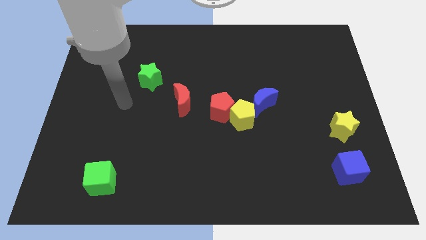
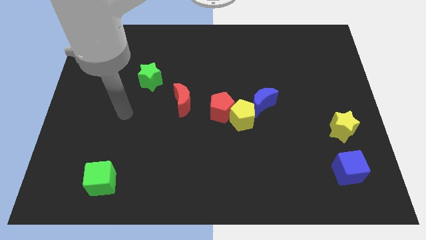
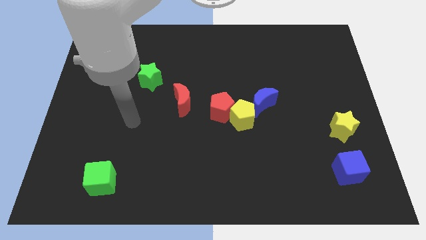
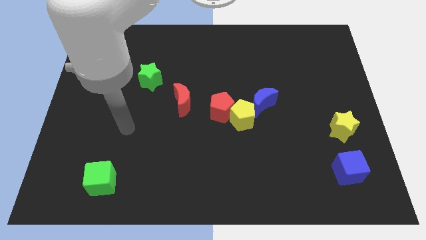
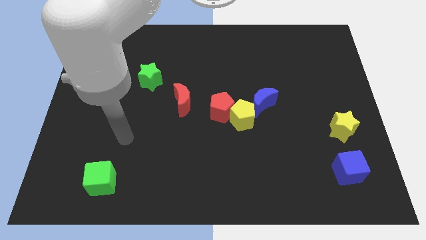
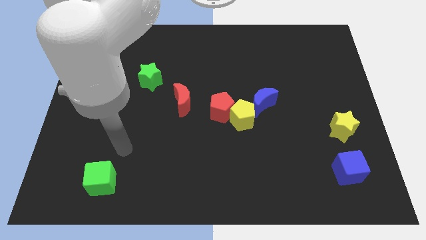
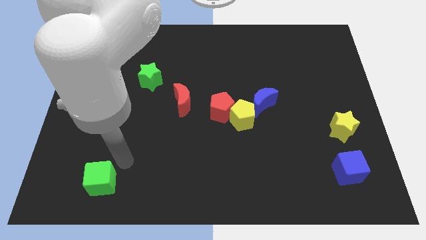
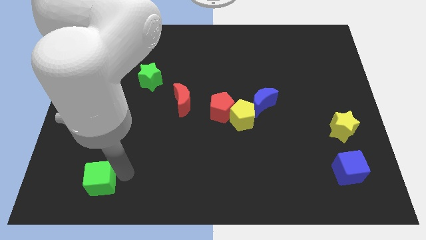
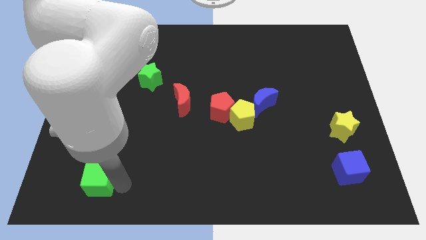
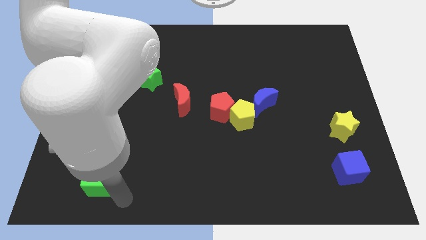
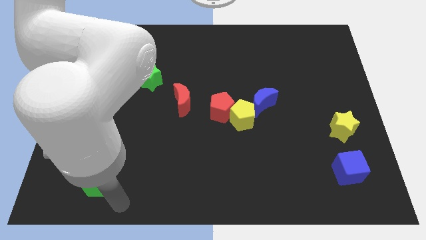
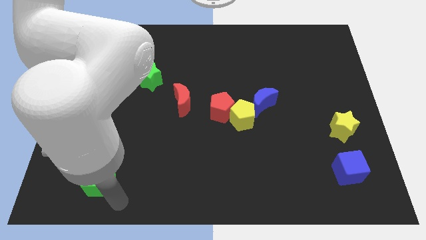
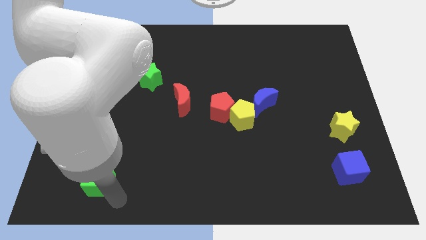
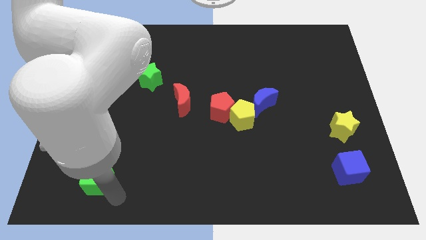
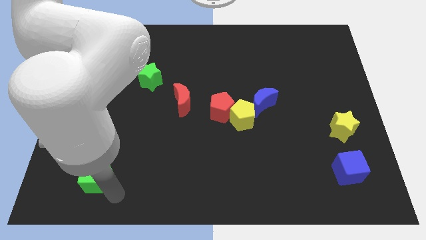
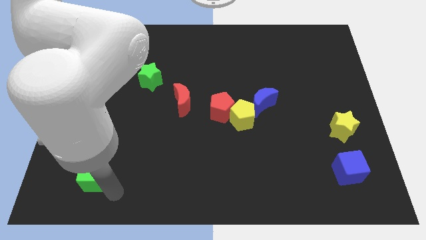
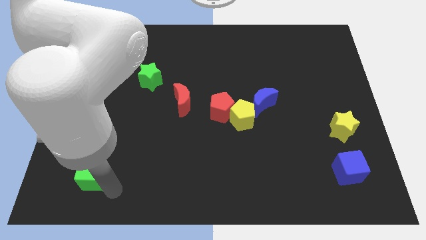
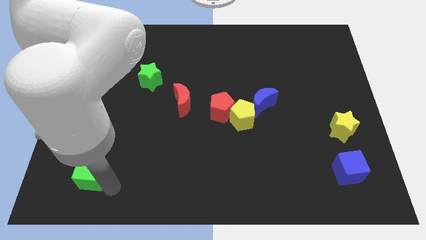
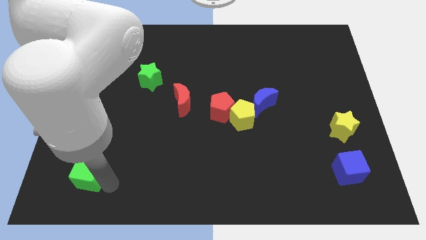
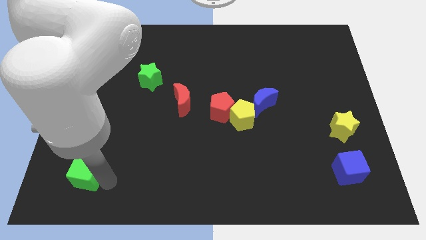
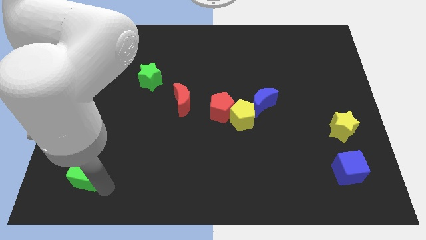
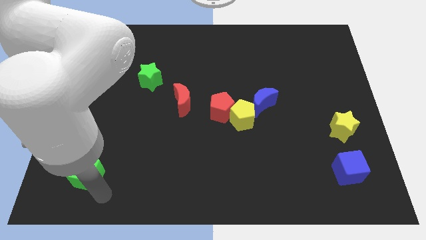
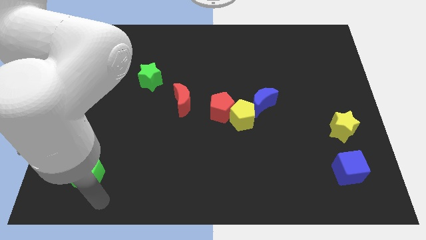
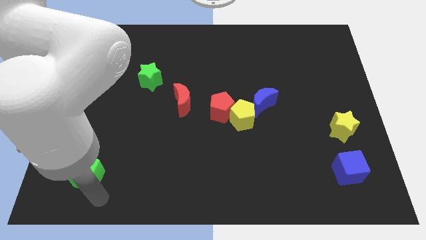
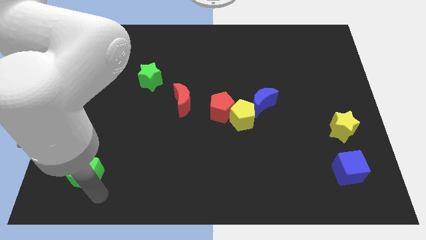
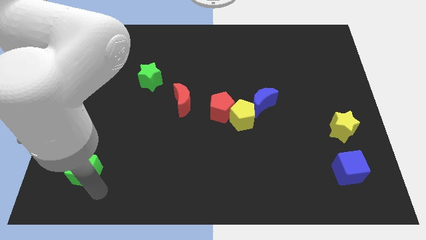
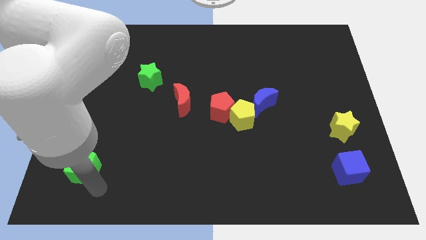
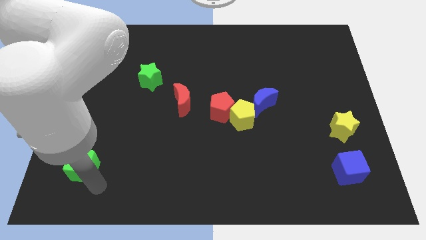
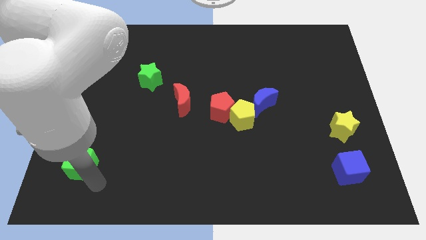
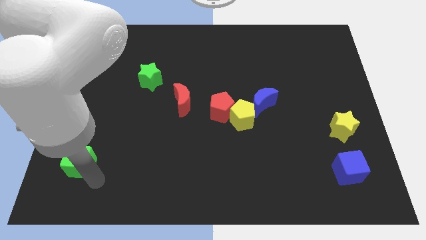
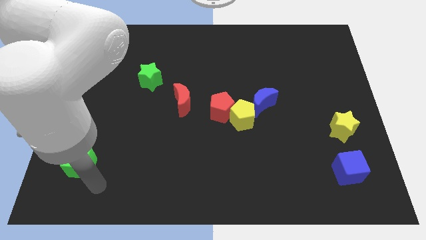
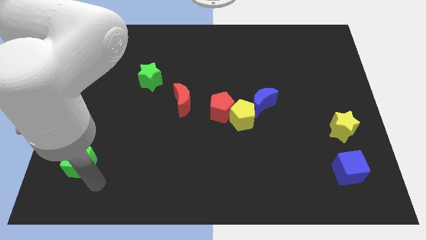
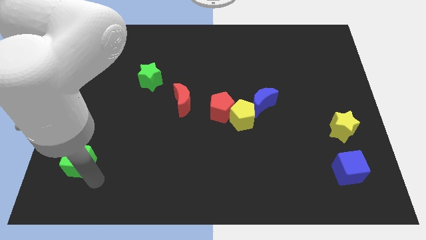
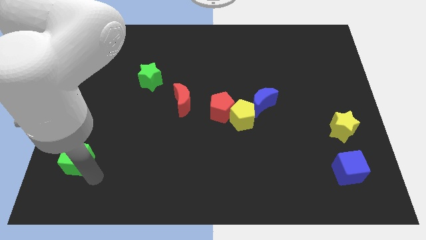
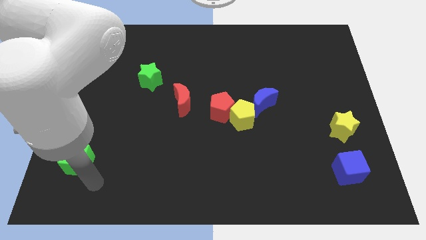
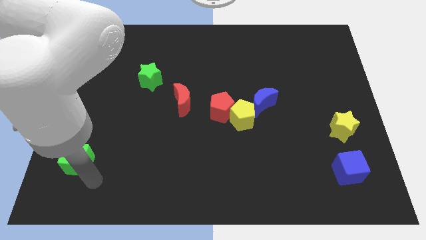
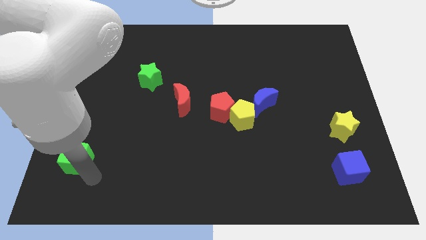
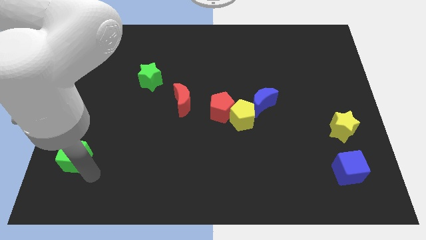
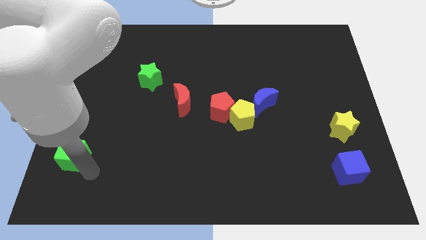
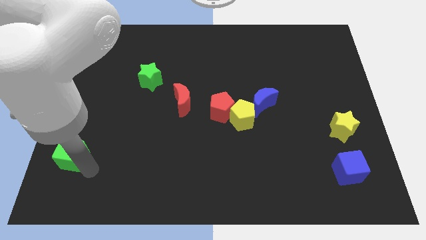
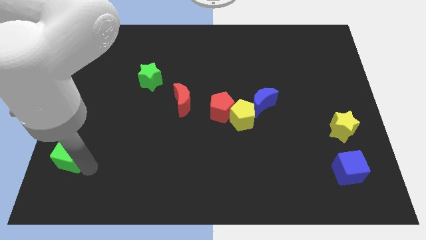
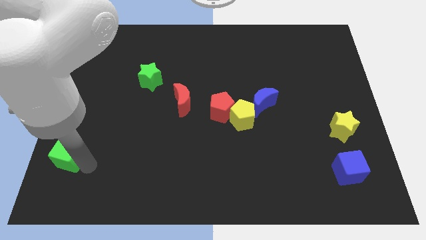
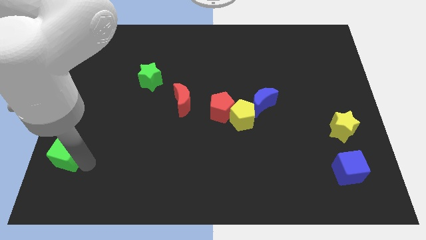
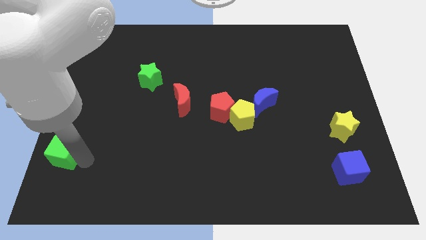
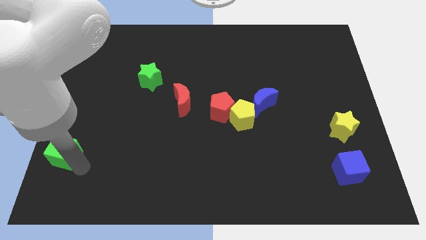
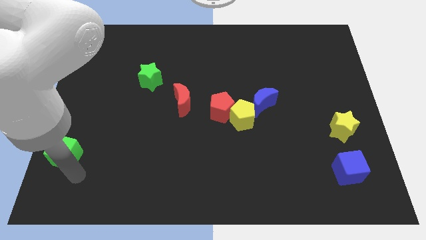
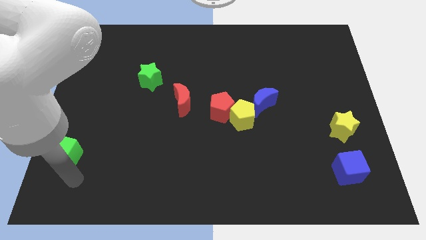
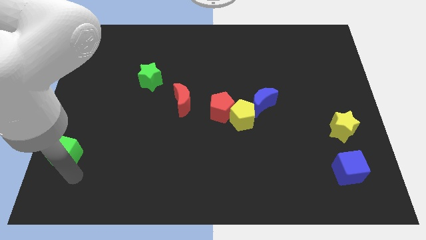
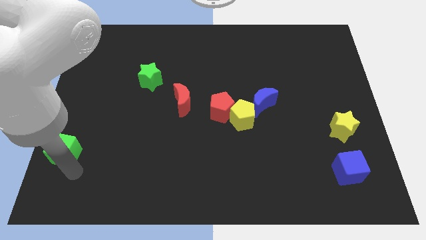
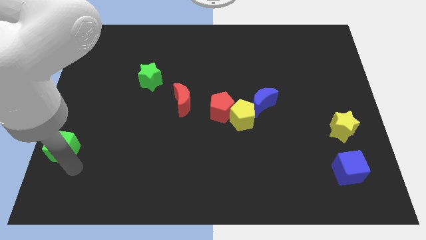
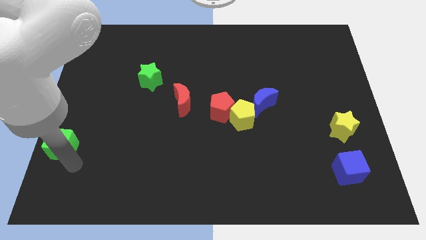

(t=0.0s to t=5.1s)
slide the green cube to the left side

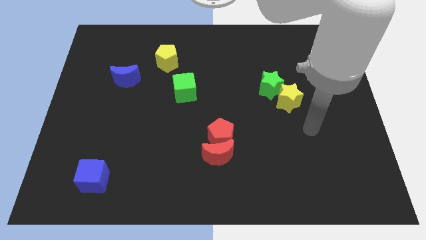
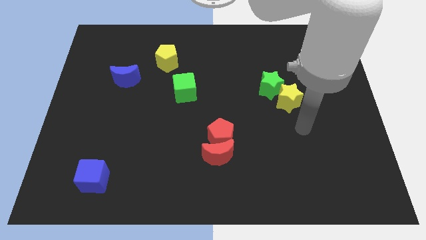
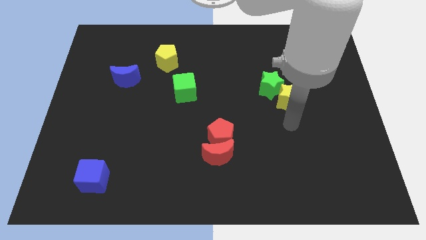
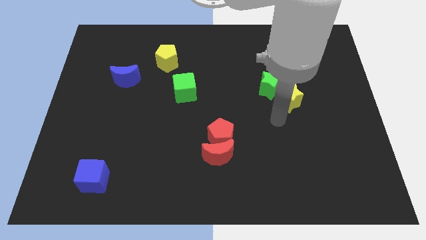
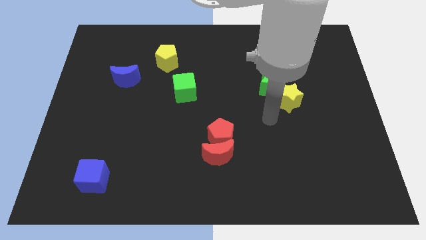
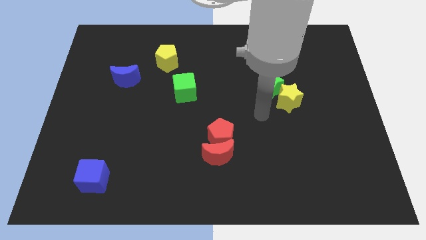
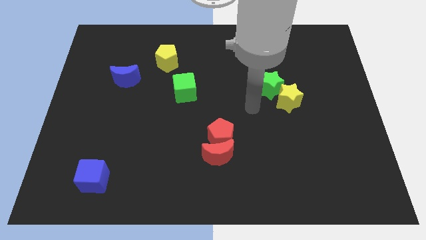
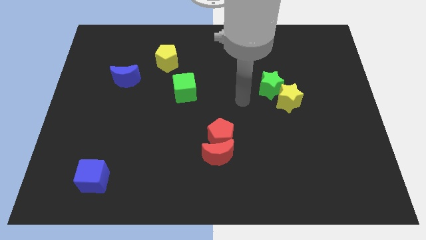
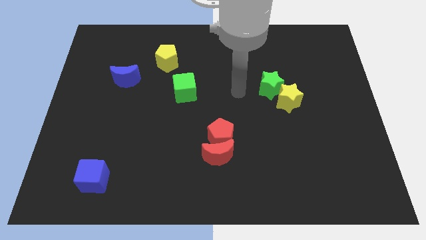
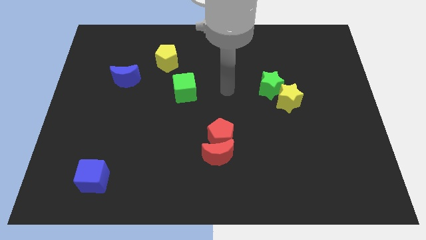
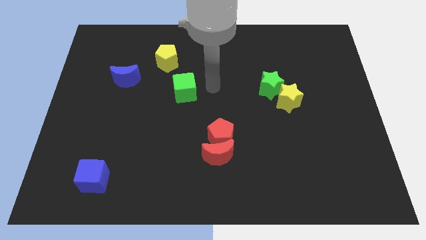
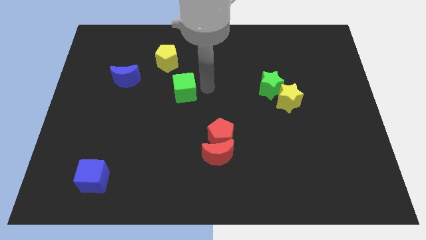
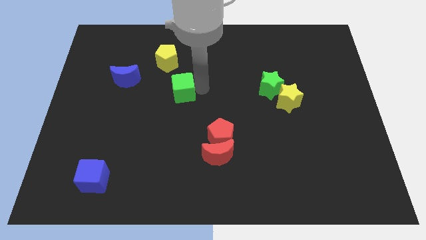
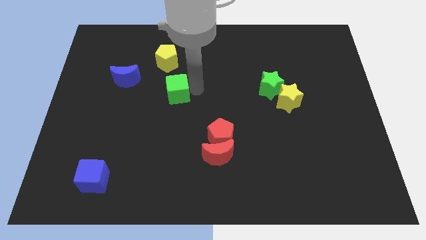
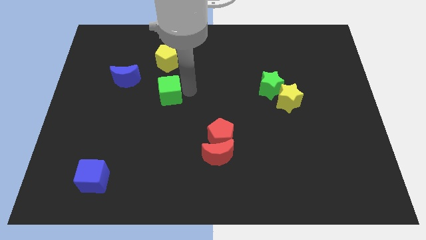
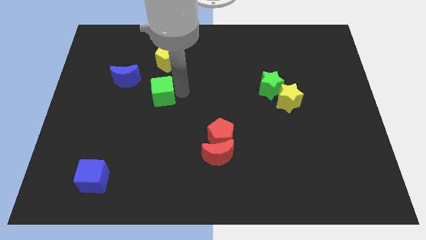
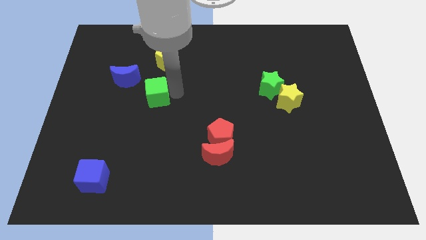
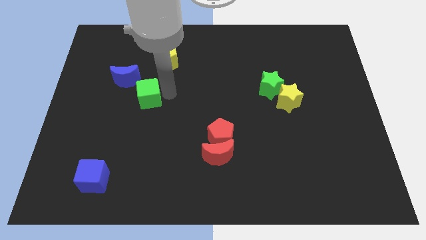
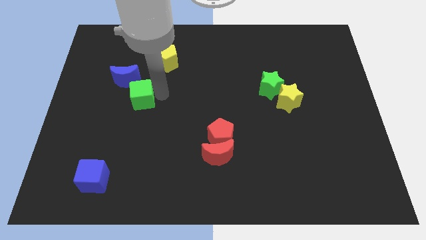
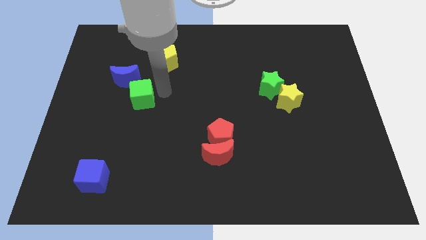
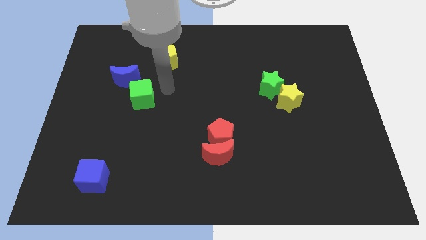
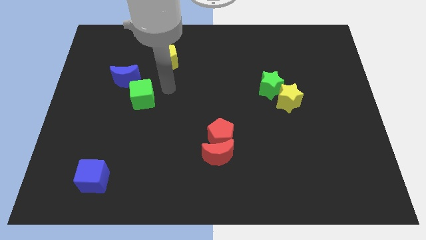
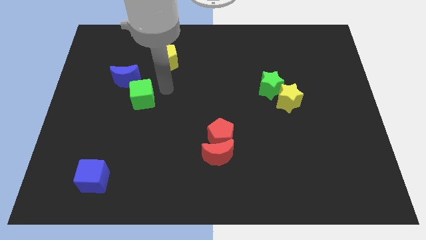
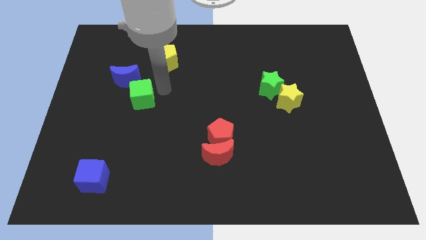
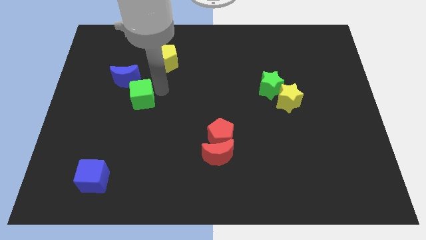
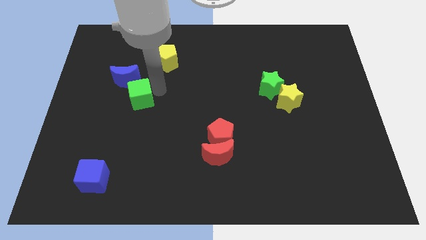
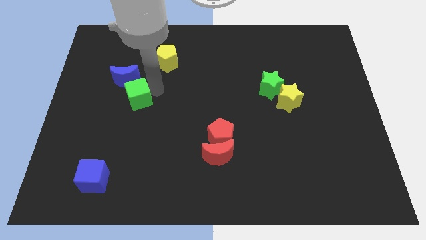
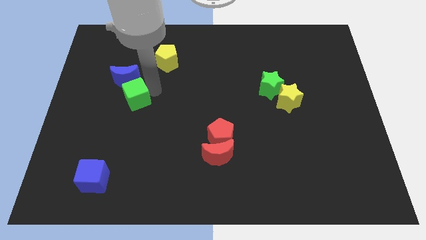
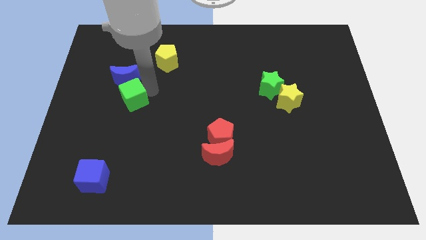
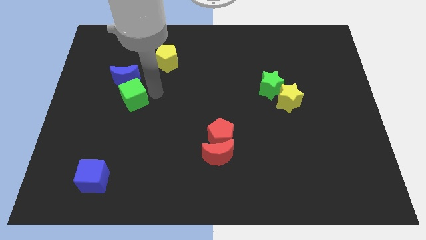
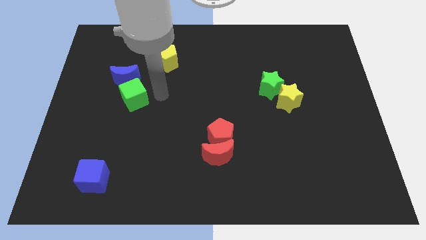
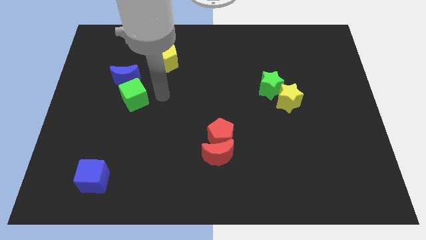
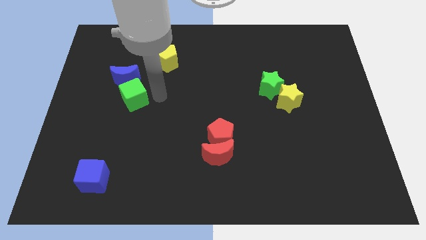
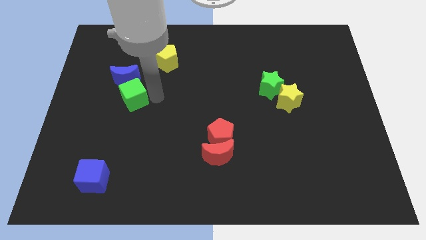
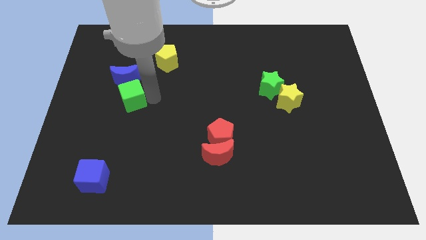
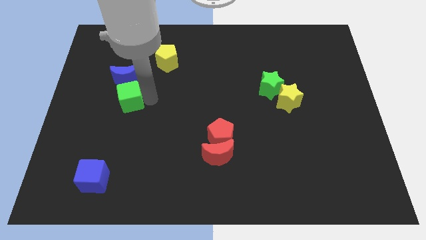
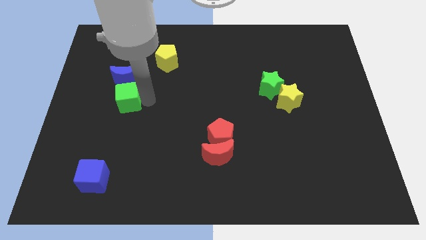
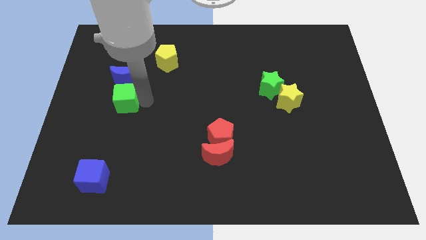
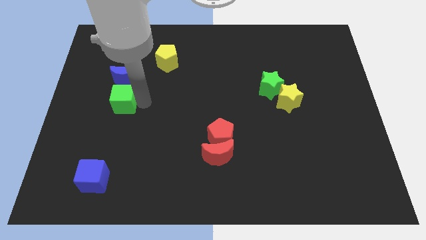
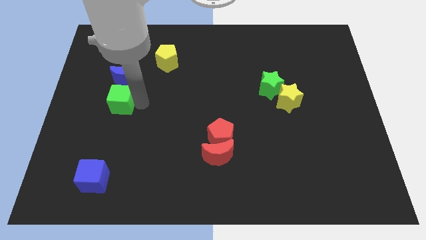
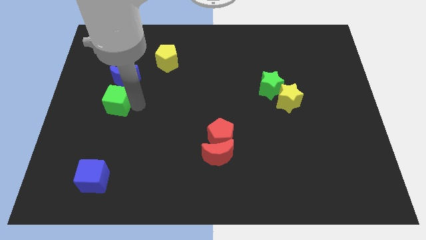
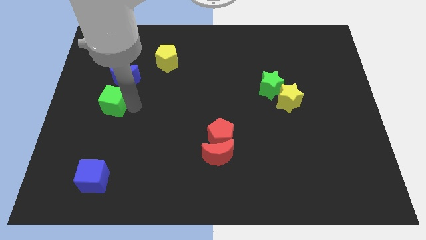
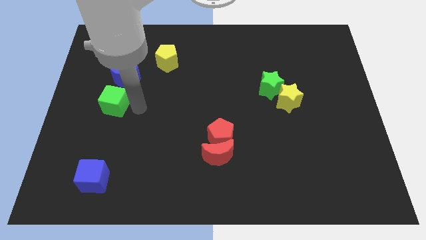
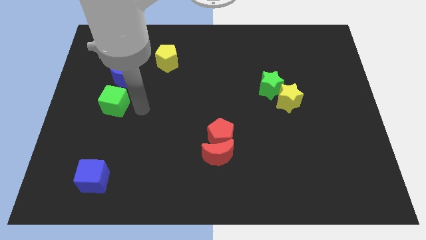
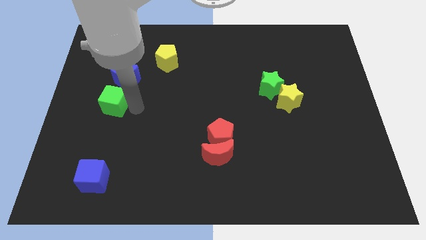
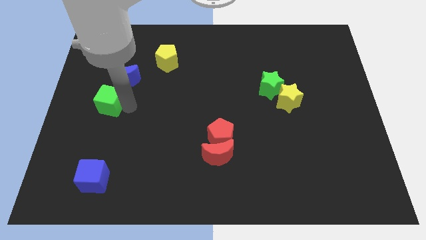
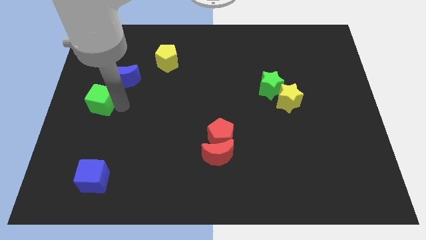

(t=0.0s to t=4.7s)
push the green cube to the left side
